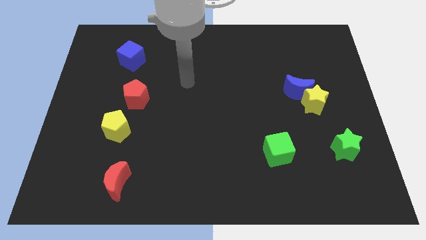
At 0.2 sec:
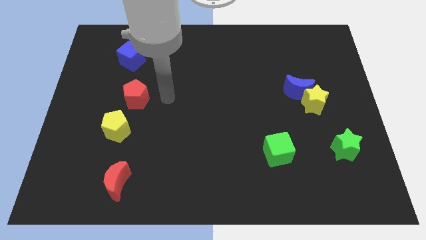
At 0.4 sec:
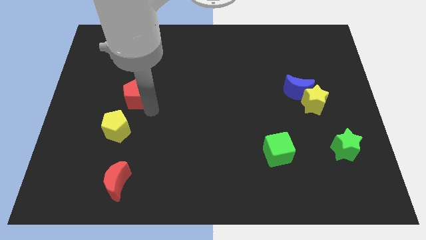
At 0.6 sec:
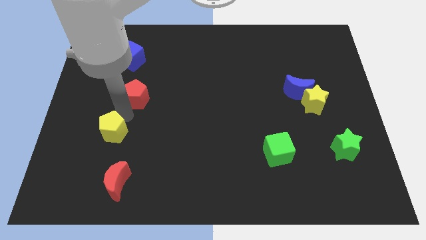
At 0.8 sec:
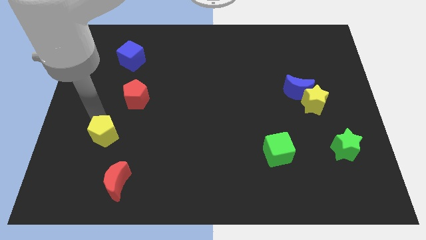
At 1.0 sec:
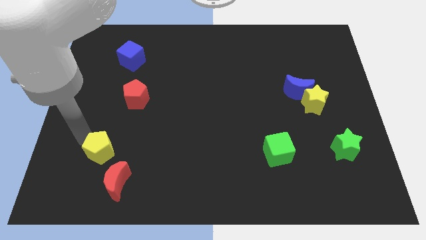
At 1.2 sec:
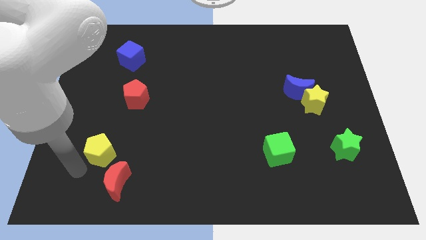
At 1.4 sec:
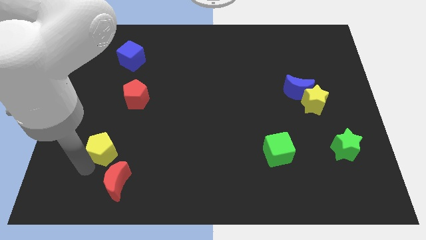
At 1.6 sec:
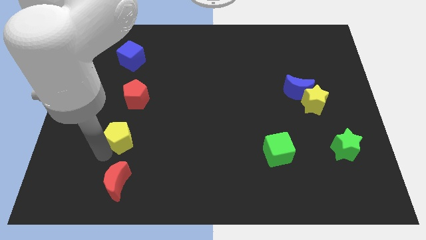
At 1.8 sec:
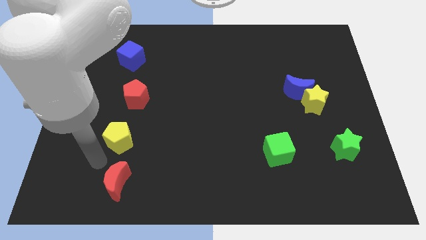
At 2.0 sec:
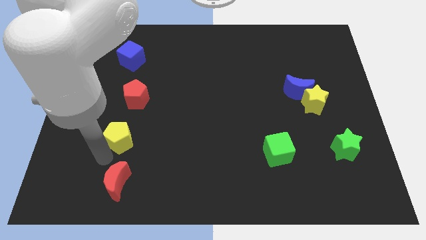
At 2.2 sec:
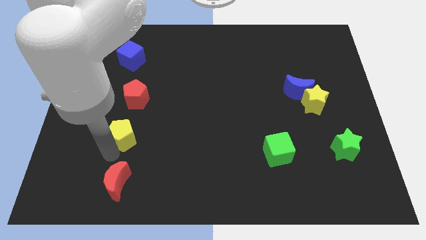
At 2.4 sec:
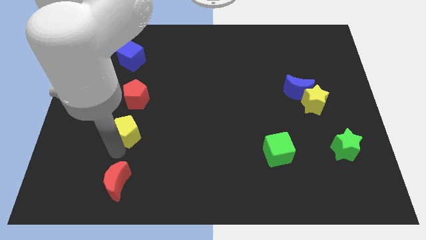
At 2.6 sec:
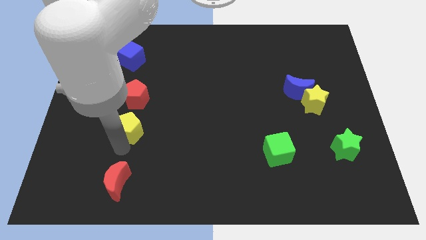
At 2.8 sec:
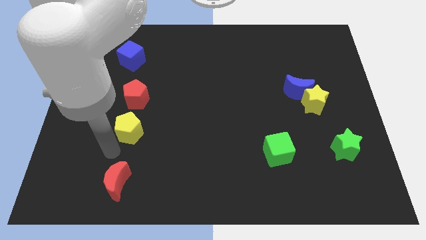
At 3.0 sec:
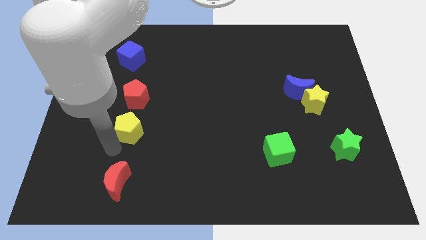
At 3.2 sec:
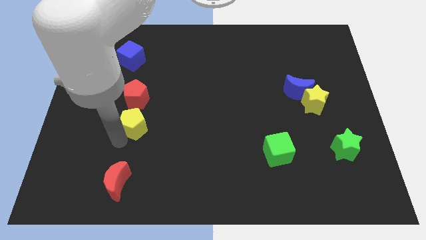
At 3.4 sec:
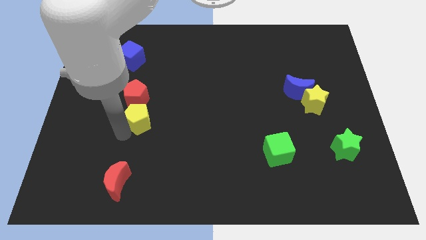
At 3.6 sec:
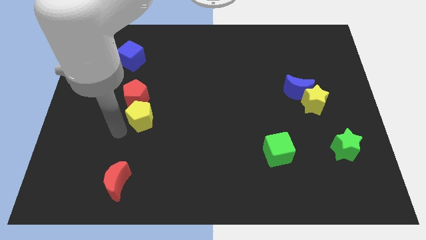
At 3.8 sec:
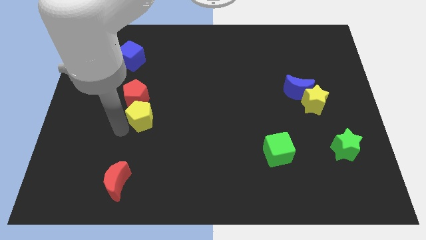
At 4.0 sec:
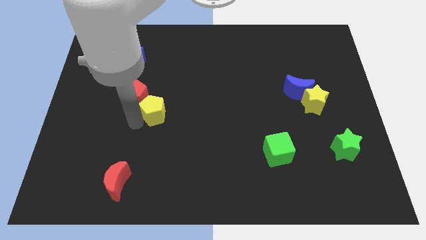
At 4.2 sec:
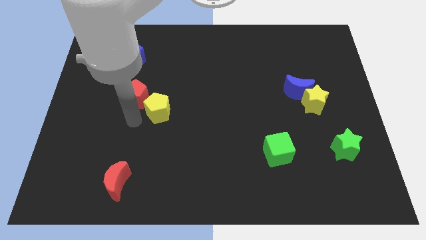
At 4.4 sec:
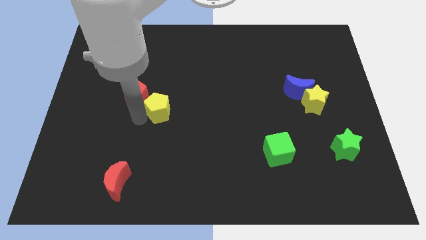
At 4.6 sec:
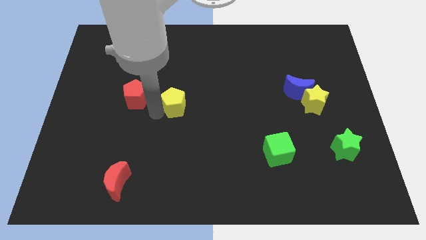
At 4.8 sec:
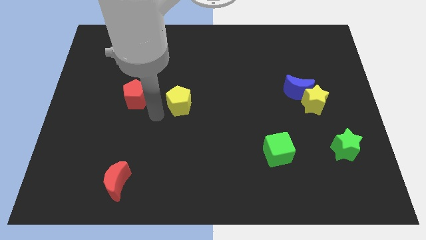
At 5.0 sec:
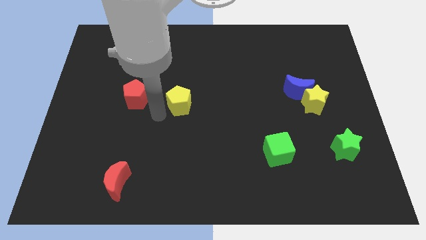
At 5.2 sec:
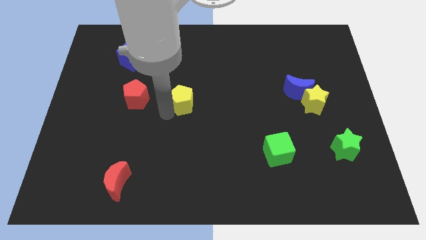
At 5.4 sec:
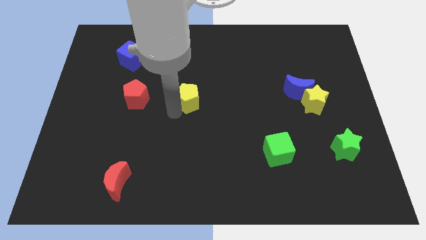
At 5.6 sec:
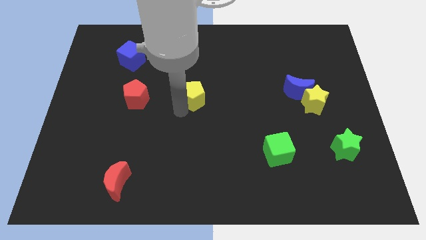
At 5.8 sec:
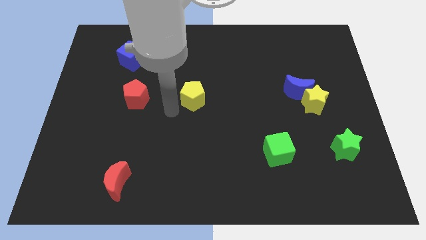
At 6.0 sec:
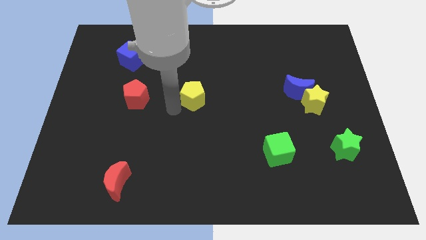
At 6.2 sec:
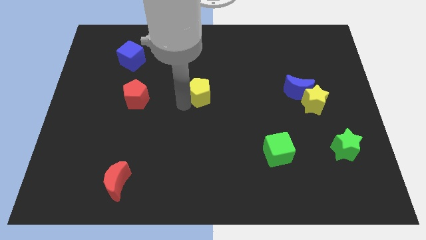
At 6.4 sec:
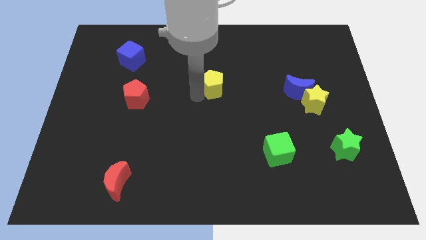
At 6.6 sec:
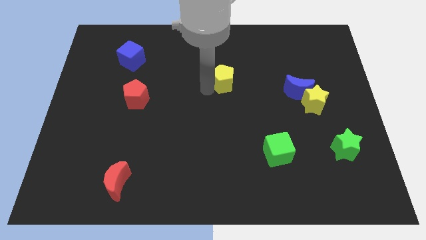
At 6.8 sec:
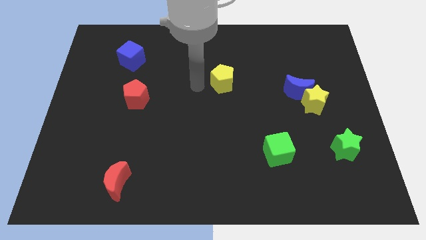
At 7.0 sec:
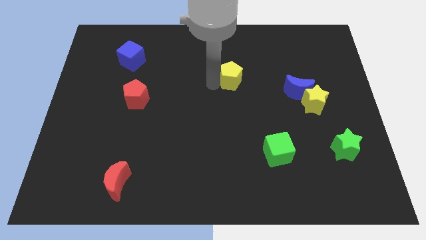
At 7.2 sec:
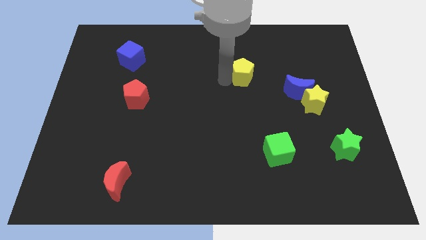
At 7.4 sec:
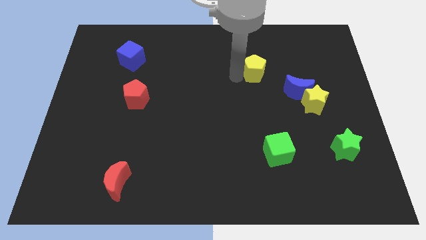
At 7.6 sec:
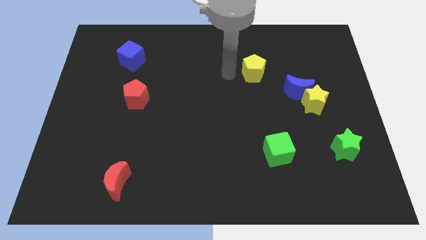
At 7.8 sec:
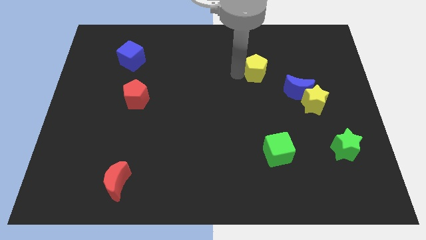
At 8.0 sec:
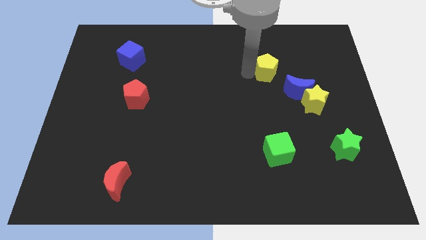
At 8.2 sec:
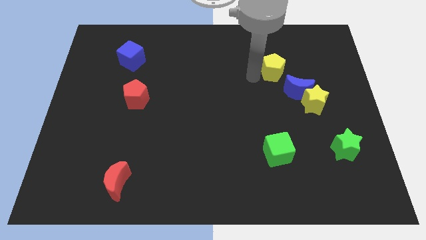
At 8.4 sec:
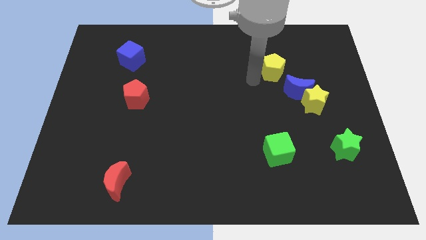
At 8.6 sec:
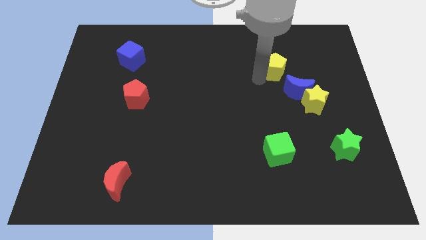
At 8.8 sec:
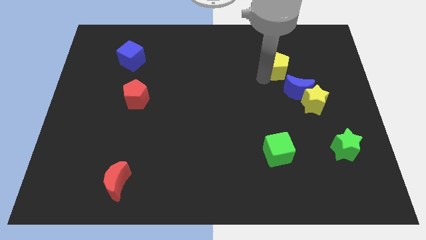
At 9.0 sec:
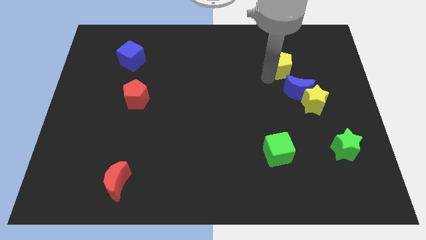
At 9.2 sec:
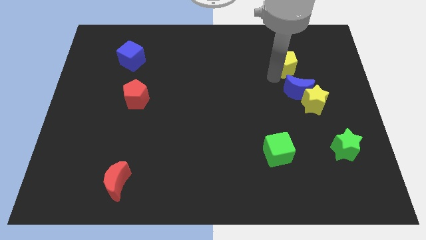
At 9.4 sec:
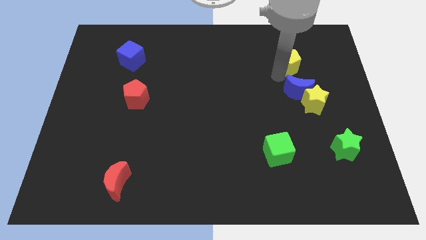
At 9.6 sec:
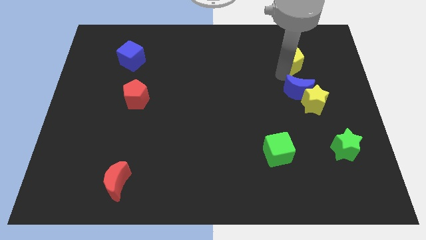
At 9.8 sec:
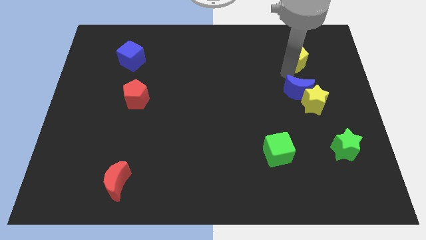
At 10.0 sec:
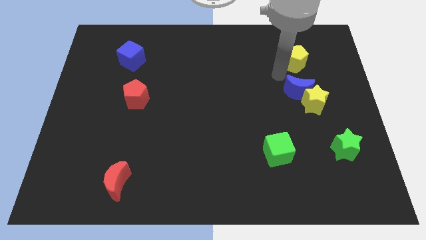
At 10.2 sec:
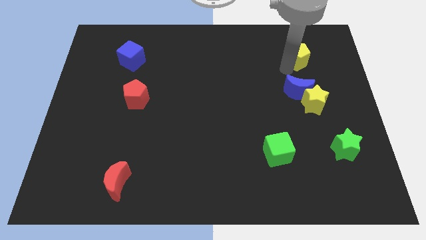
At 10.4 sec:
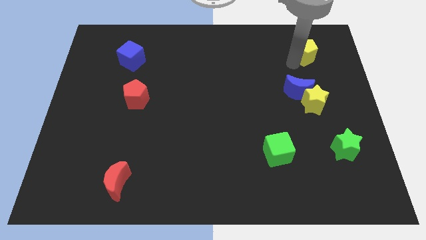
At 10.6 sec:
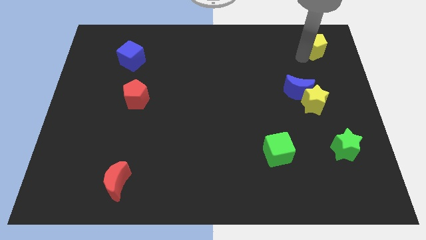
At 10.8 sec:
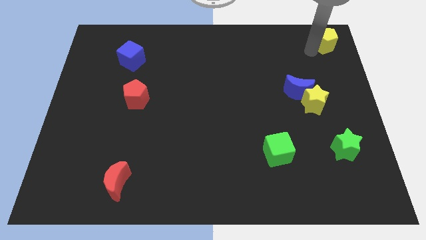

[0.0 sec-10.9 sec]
put the yellow pentagon to the top right of the board
